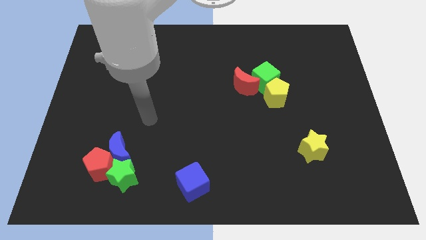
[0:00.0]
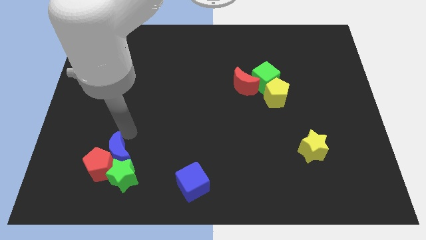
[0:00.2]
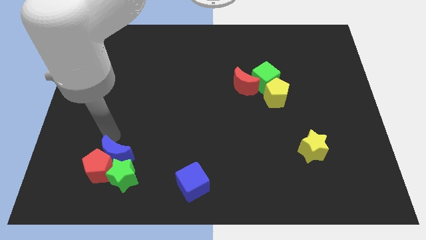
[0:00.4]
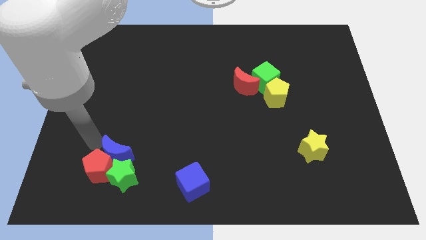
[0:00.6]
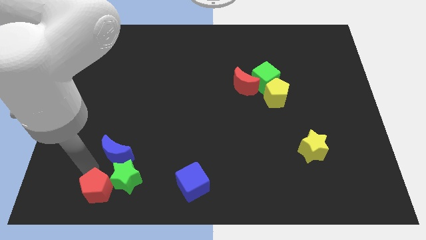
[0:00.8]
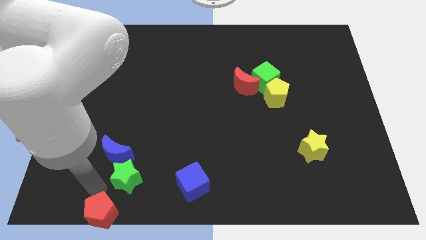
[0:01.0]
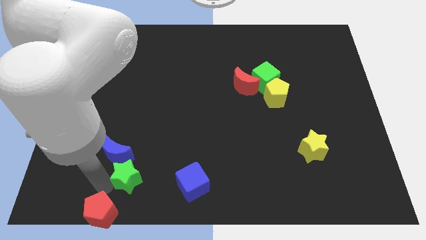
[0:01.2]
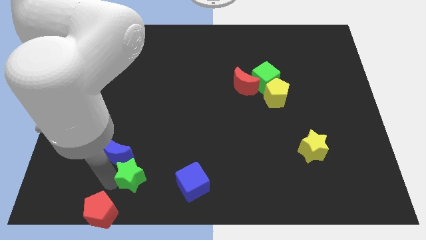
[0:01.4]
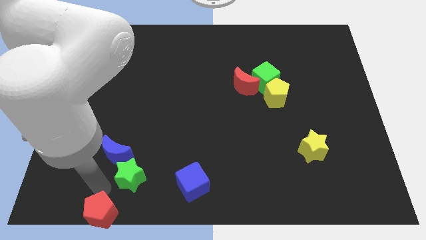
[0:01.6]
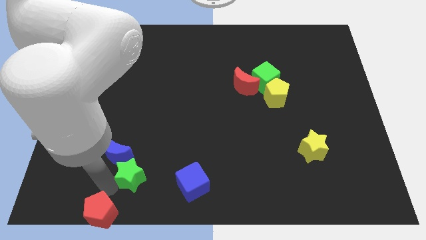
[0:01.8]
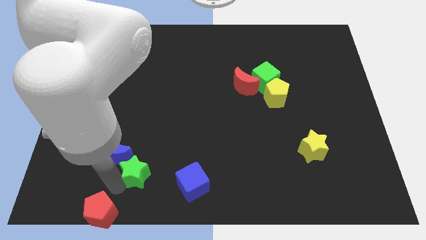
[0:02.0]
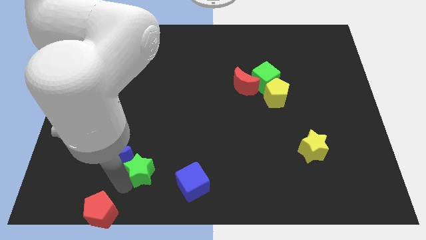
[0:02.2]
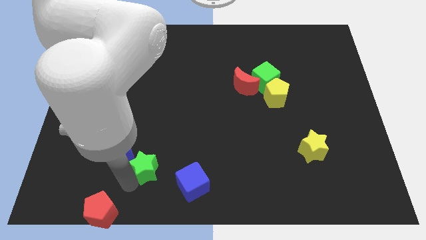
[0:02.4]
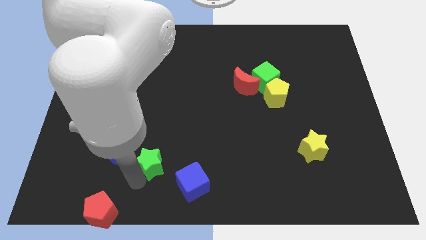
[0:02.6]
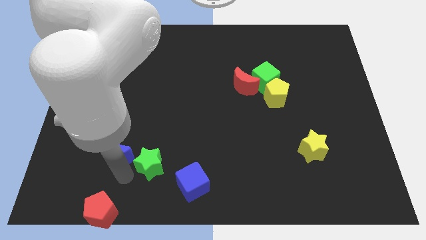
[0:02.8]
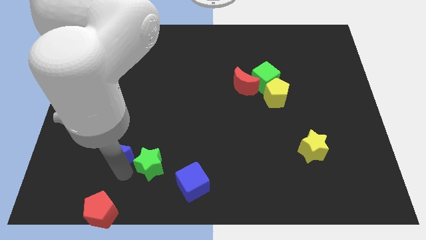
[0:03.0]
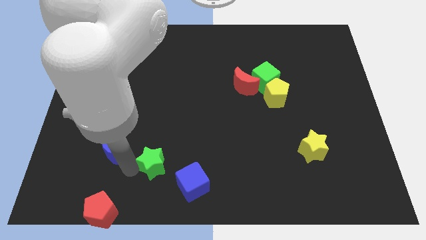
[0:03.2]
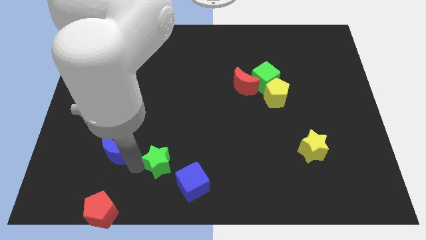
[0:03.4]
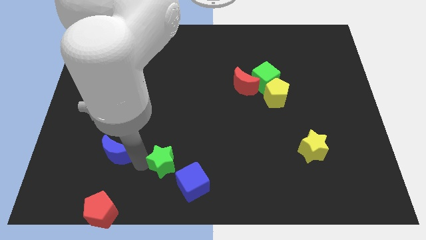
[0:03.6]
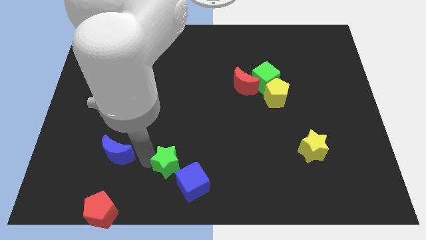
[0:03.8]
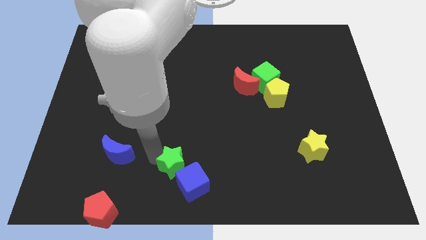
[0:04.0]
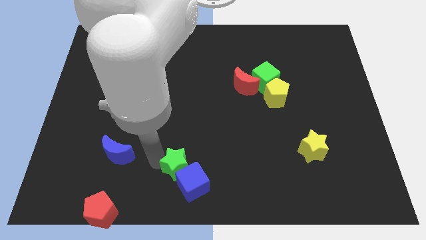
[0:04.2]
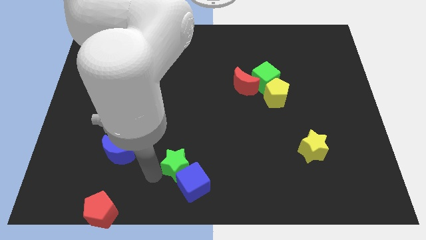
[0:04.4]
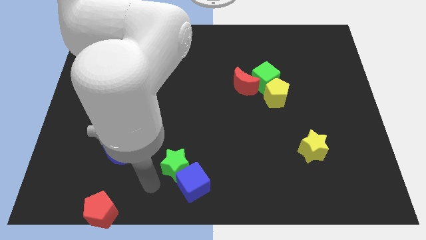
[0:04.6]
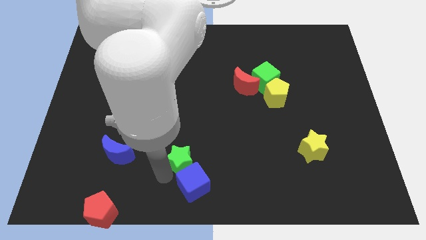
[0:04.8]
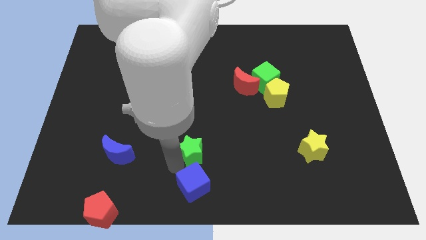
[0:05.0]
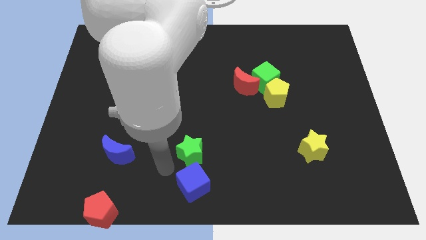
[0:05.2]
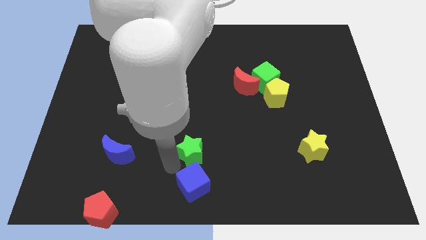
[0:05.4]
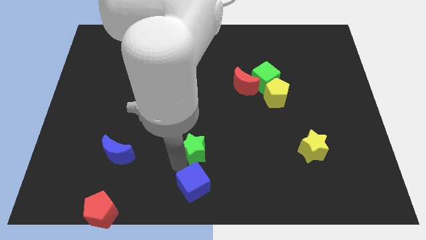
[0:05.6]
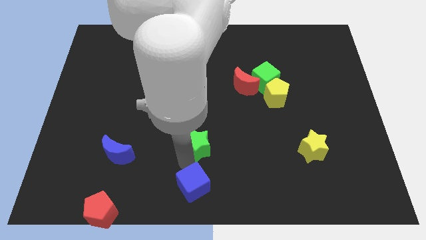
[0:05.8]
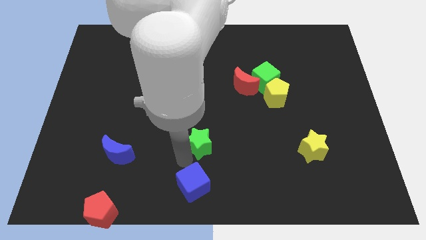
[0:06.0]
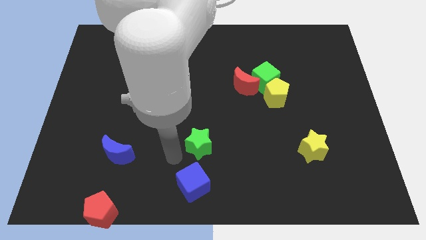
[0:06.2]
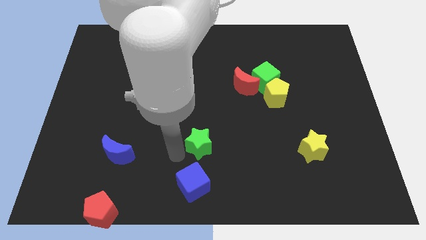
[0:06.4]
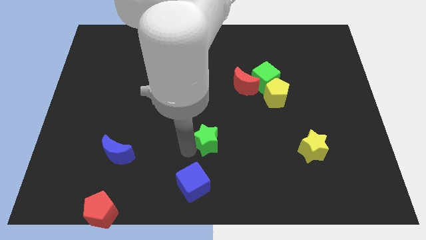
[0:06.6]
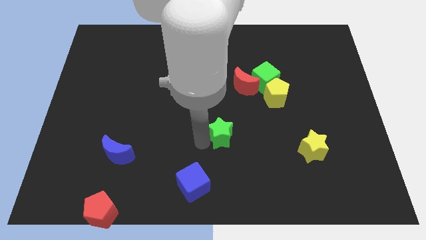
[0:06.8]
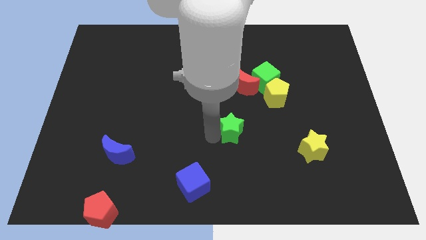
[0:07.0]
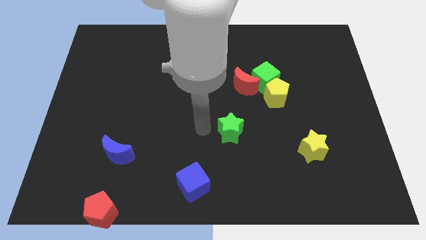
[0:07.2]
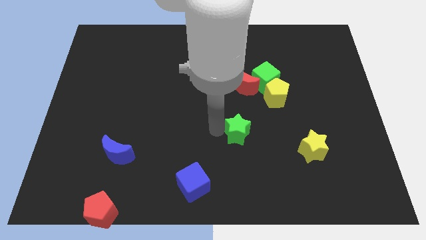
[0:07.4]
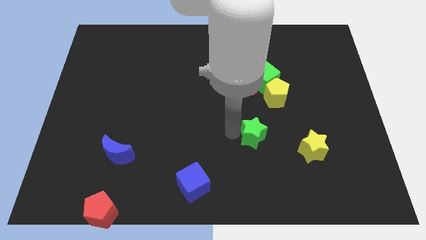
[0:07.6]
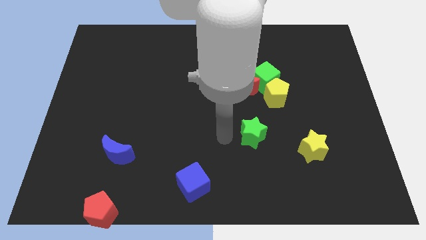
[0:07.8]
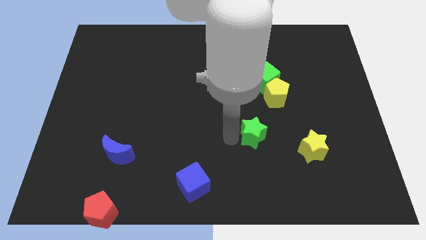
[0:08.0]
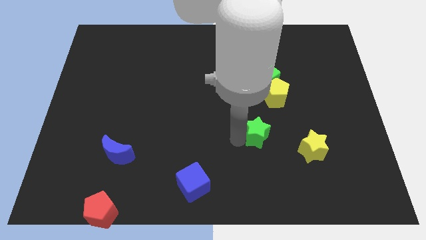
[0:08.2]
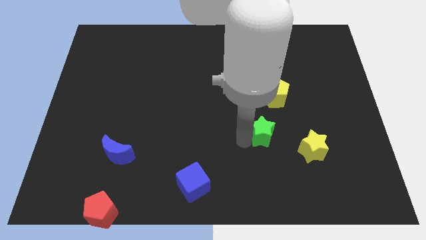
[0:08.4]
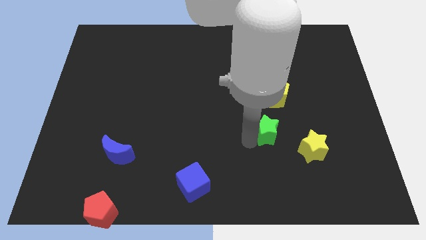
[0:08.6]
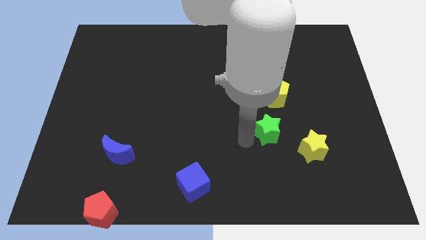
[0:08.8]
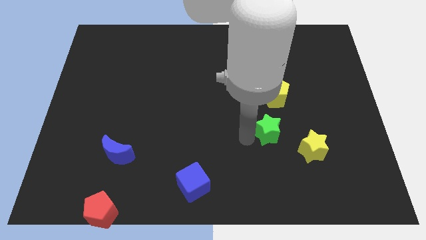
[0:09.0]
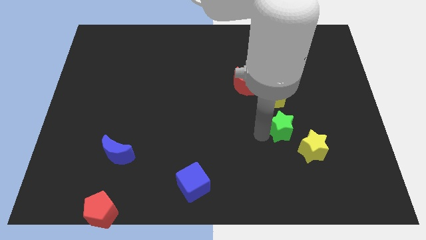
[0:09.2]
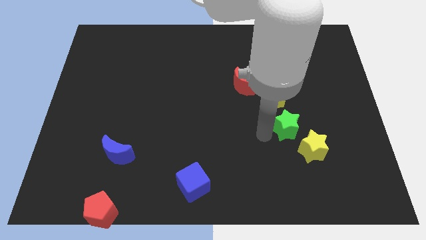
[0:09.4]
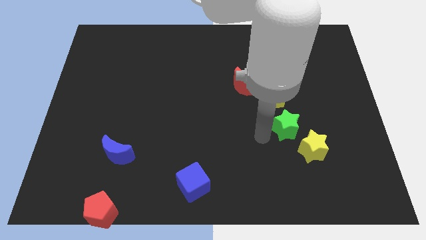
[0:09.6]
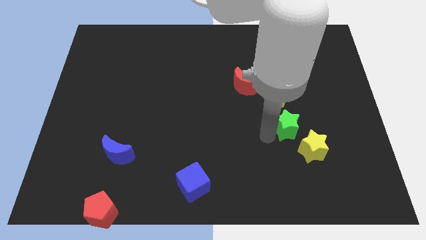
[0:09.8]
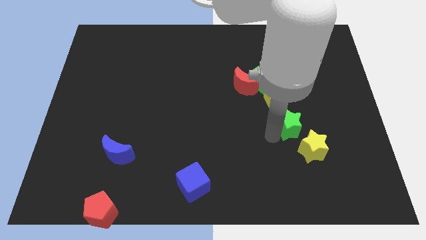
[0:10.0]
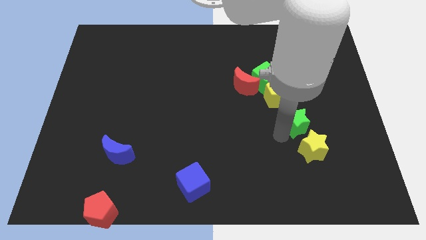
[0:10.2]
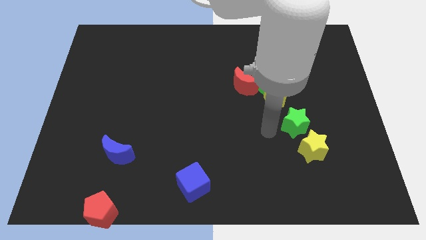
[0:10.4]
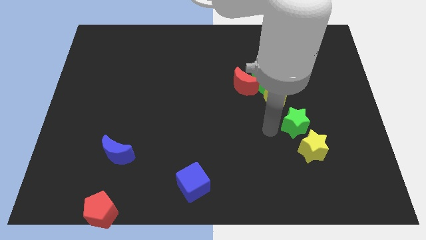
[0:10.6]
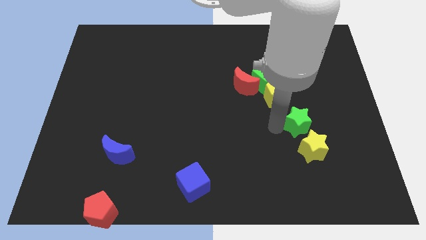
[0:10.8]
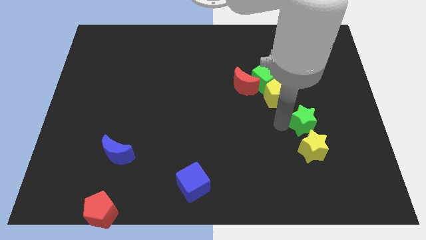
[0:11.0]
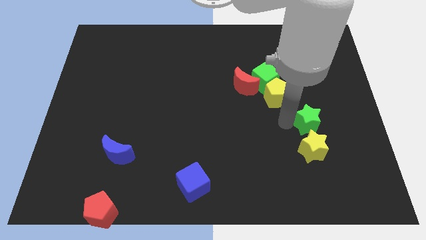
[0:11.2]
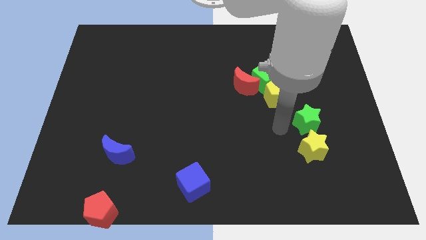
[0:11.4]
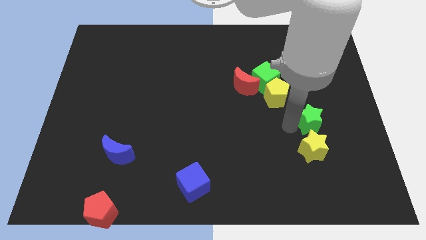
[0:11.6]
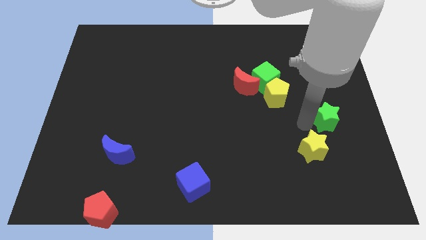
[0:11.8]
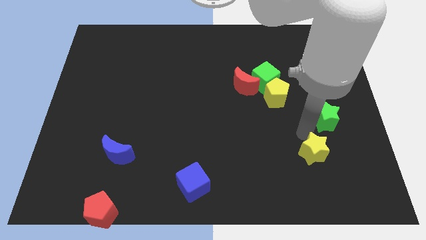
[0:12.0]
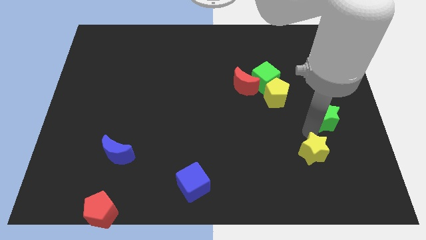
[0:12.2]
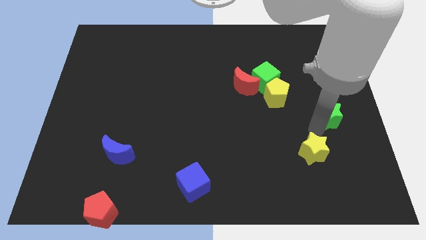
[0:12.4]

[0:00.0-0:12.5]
move the green star to the right side of the board

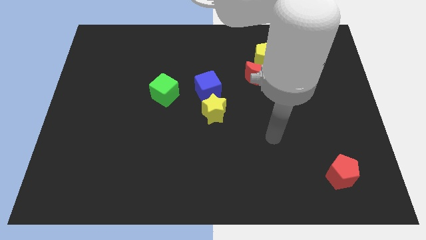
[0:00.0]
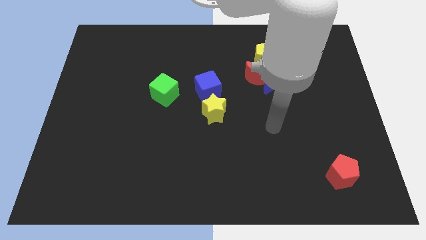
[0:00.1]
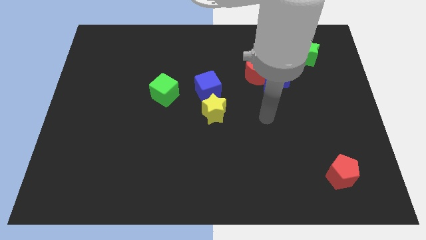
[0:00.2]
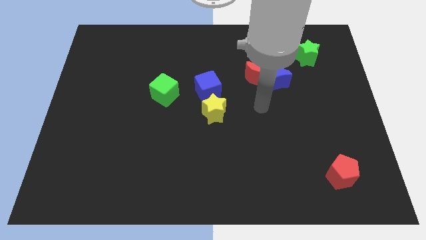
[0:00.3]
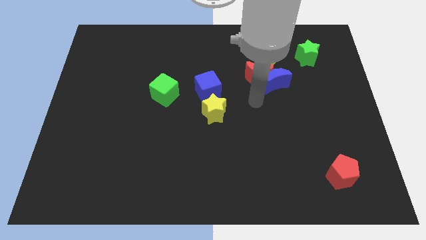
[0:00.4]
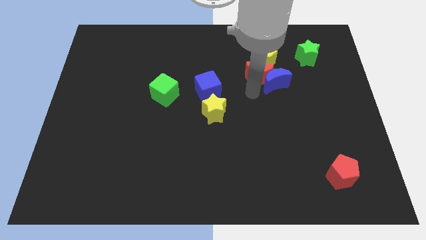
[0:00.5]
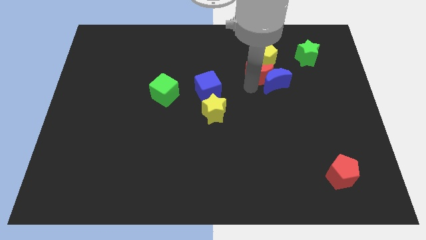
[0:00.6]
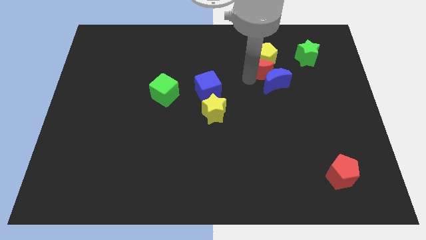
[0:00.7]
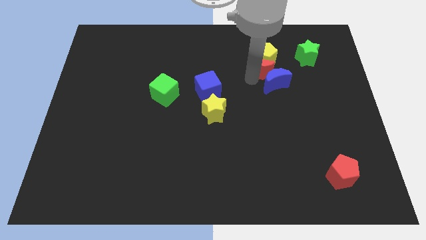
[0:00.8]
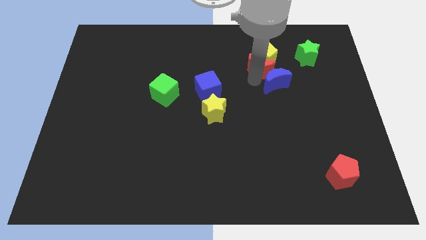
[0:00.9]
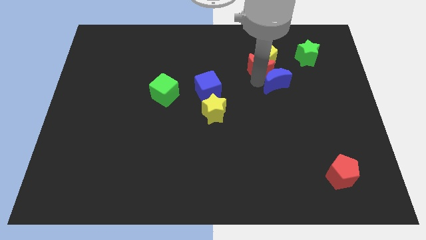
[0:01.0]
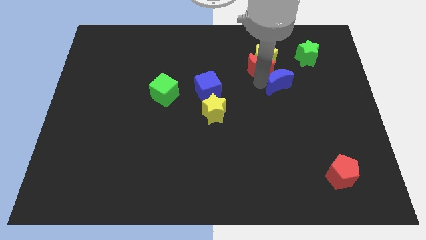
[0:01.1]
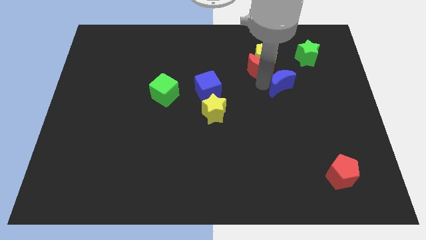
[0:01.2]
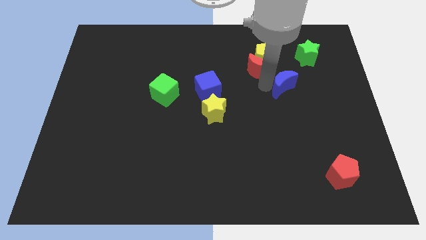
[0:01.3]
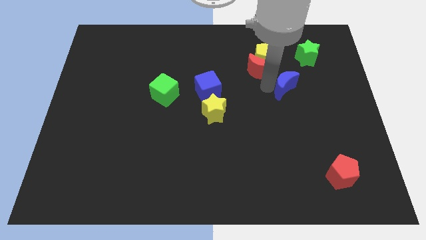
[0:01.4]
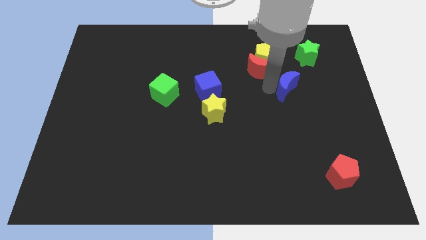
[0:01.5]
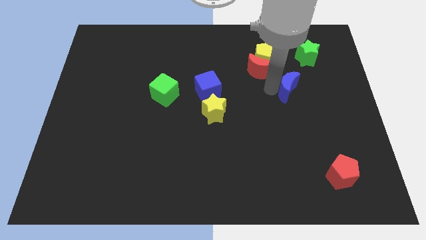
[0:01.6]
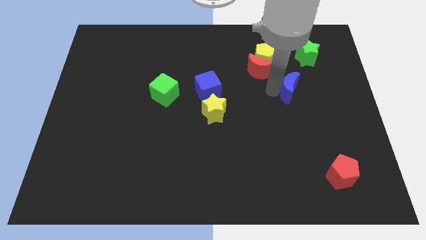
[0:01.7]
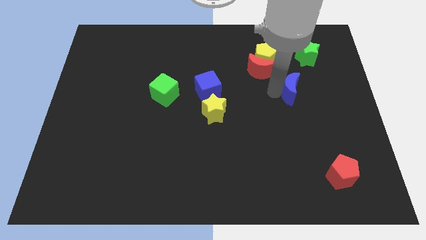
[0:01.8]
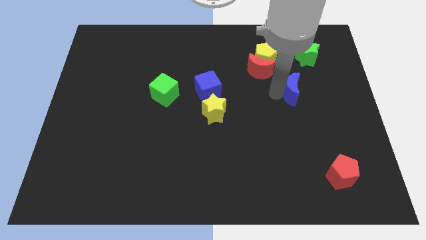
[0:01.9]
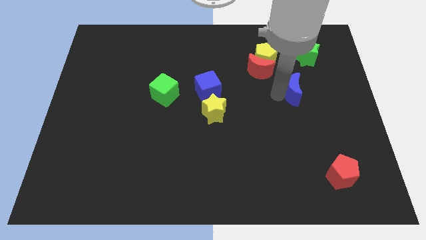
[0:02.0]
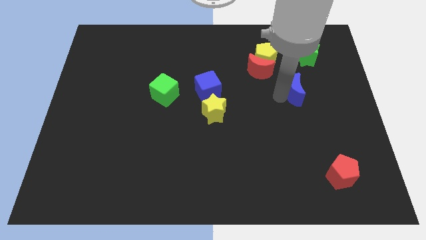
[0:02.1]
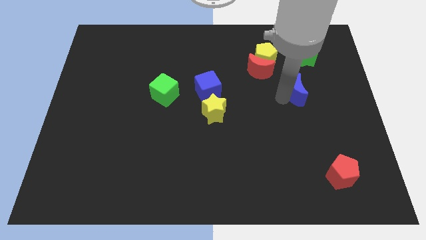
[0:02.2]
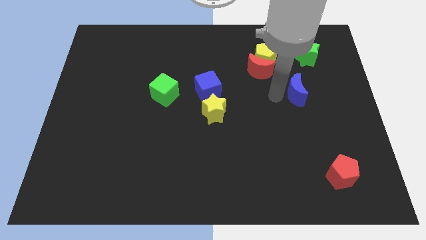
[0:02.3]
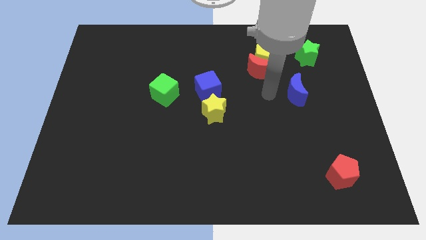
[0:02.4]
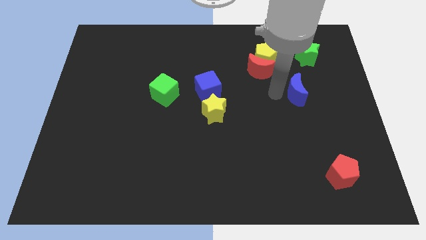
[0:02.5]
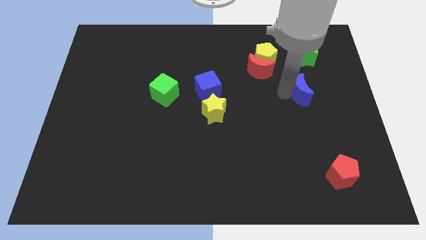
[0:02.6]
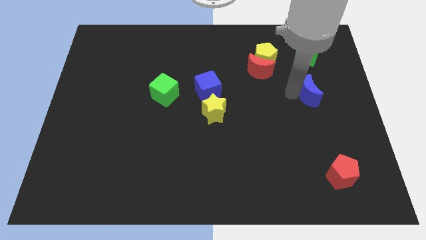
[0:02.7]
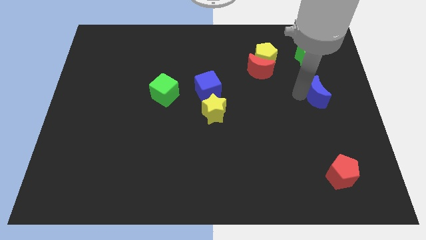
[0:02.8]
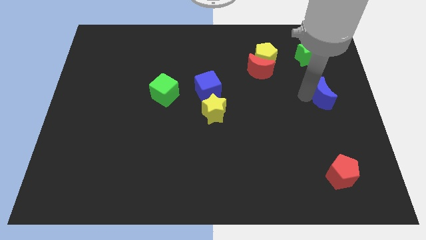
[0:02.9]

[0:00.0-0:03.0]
put the blue moon to the right side
